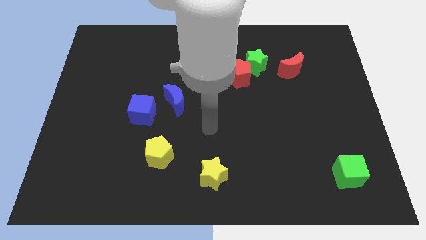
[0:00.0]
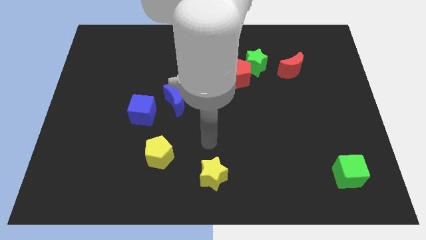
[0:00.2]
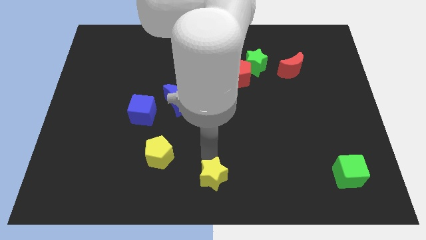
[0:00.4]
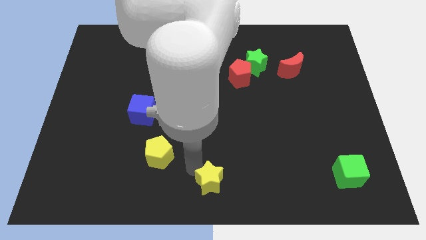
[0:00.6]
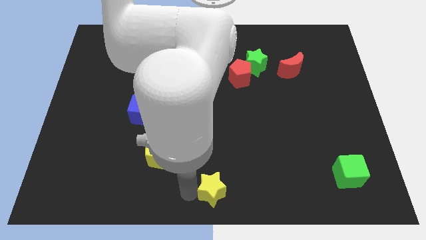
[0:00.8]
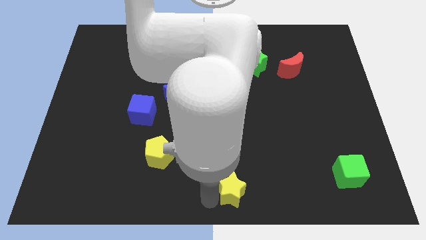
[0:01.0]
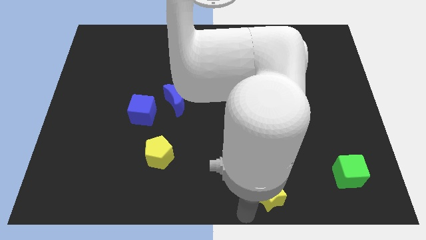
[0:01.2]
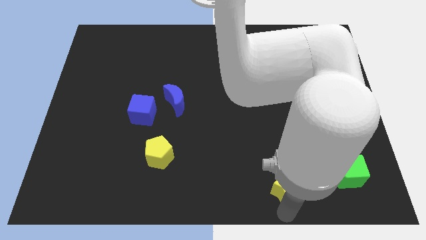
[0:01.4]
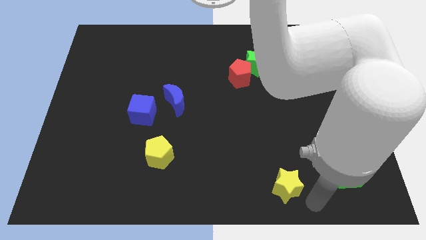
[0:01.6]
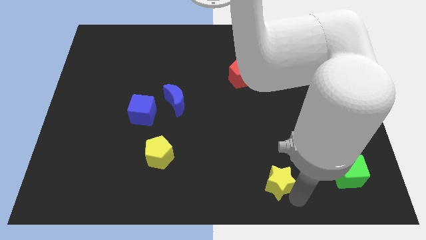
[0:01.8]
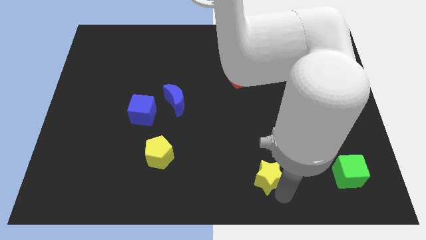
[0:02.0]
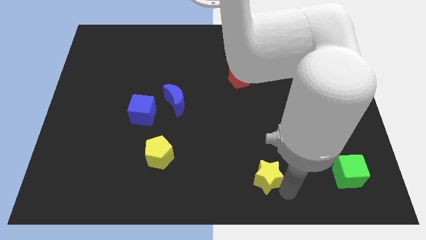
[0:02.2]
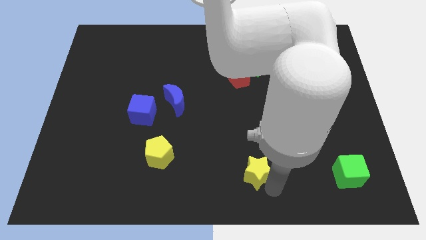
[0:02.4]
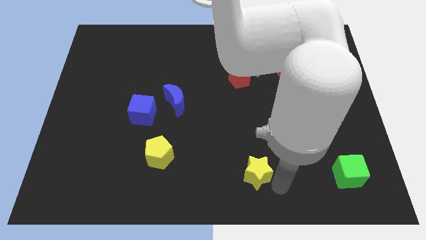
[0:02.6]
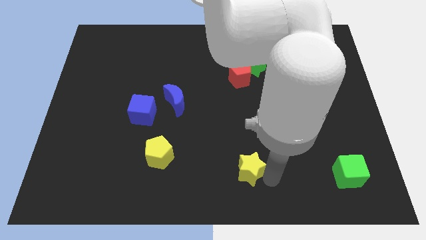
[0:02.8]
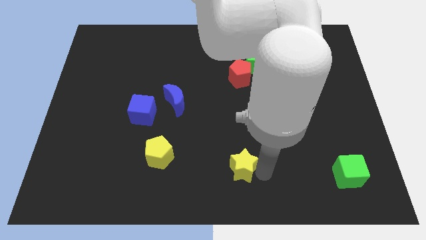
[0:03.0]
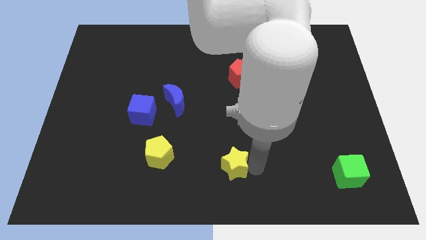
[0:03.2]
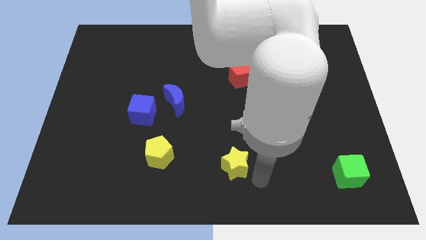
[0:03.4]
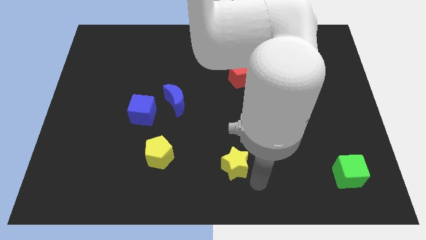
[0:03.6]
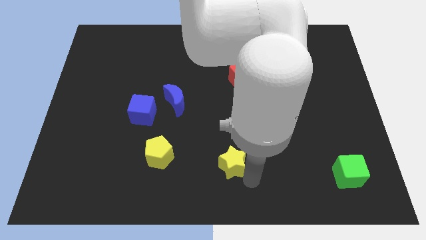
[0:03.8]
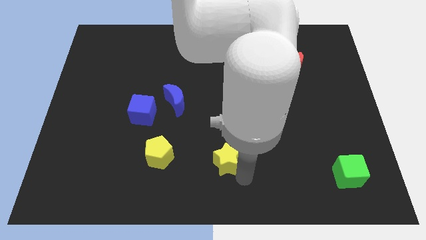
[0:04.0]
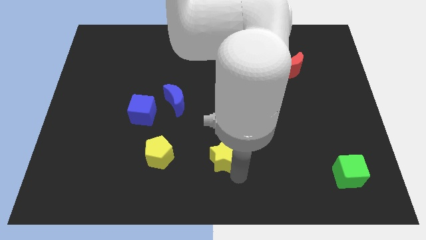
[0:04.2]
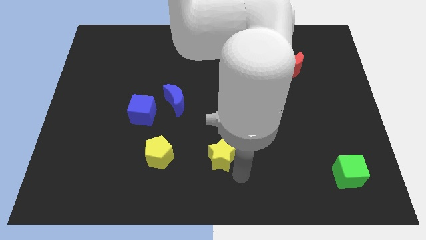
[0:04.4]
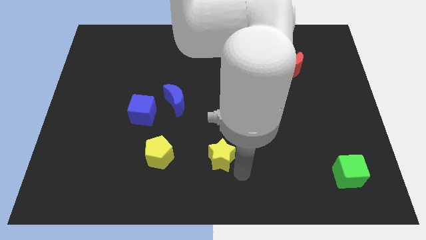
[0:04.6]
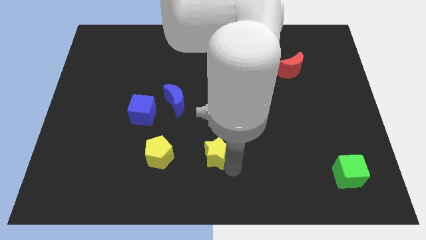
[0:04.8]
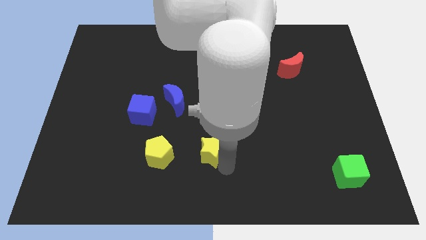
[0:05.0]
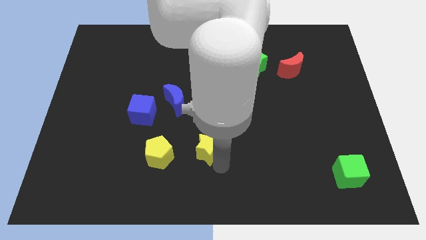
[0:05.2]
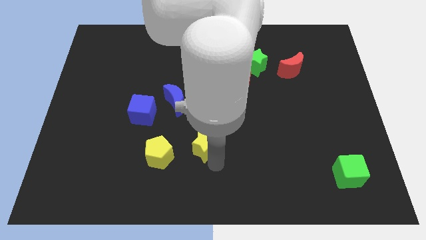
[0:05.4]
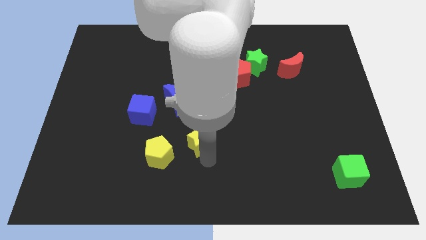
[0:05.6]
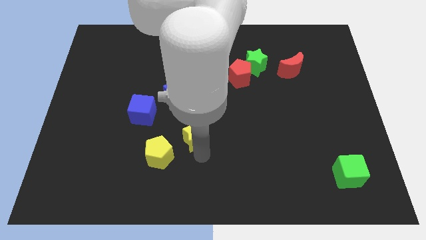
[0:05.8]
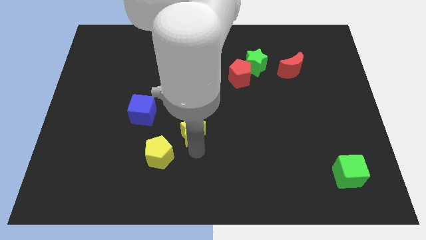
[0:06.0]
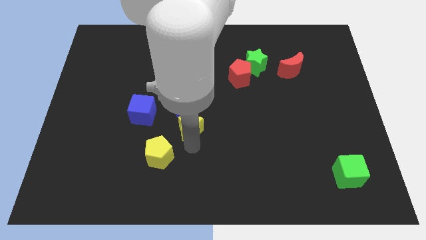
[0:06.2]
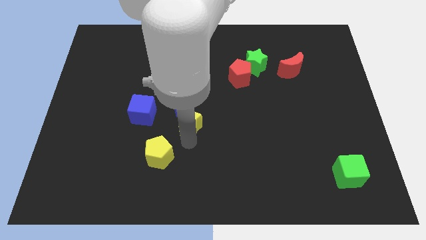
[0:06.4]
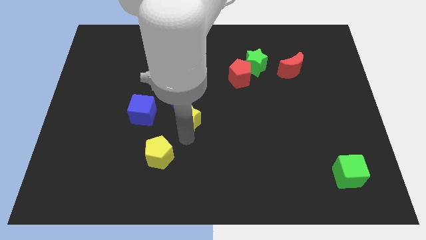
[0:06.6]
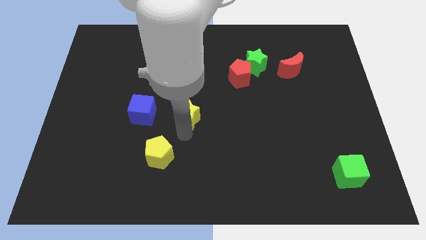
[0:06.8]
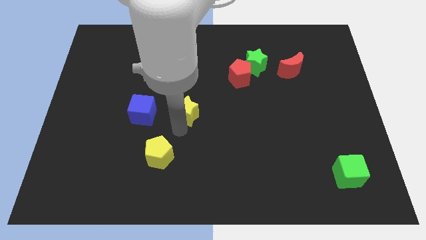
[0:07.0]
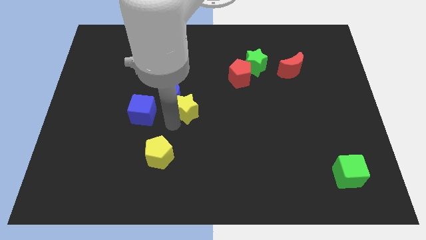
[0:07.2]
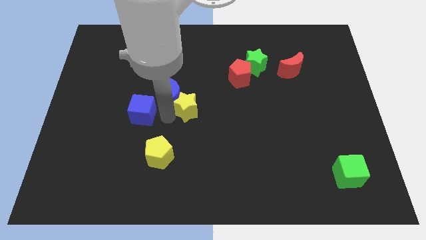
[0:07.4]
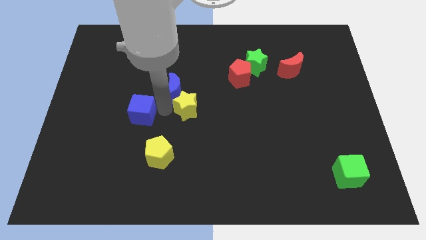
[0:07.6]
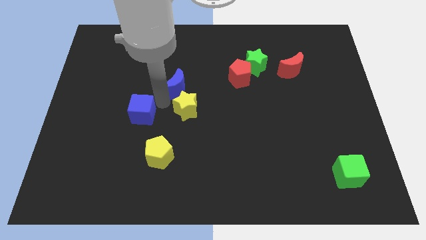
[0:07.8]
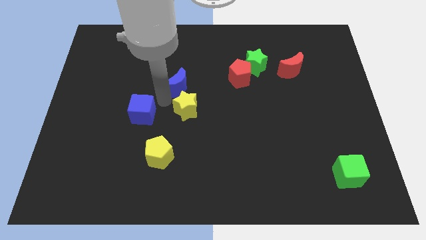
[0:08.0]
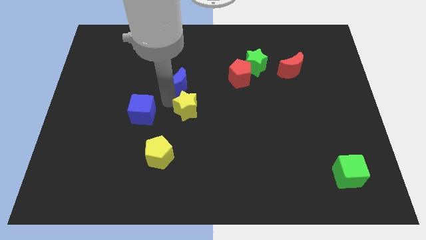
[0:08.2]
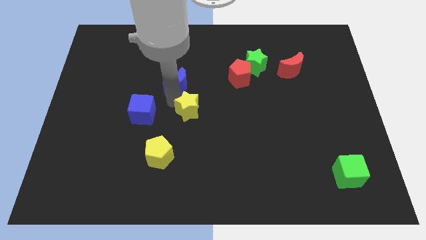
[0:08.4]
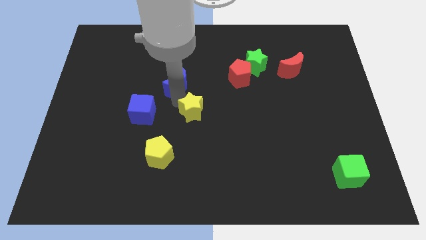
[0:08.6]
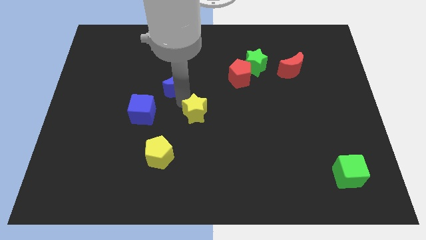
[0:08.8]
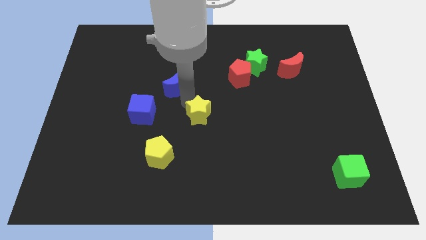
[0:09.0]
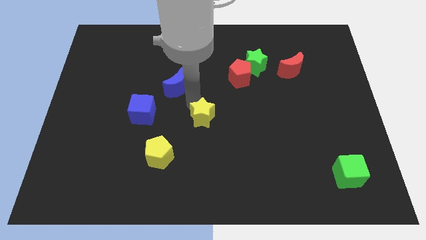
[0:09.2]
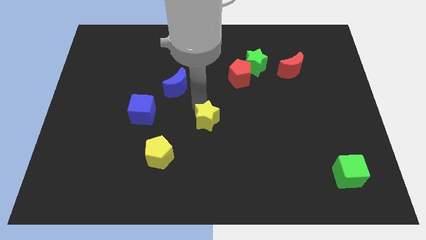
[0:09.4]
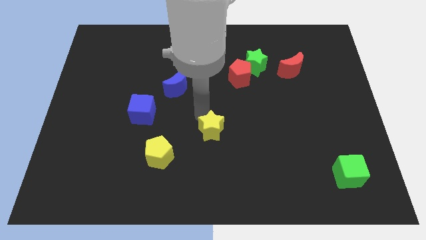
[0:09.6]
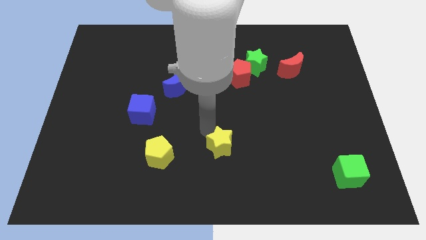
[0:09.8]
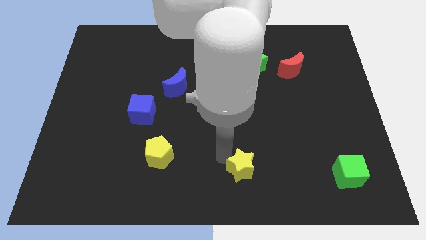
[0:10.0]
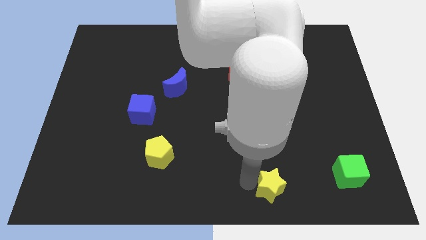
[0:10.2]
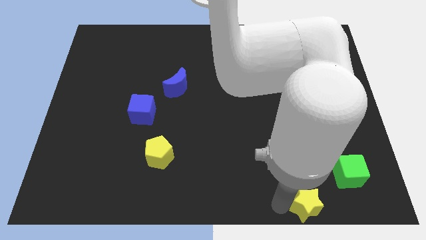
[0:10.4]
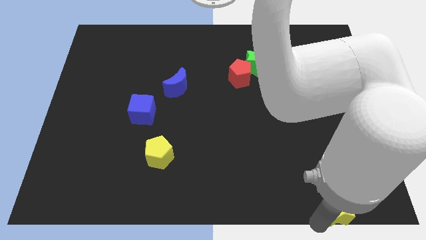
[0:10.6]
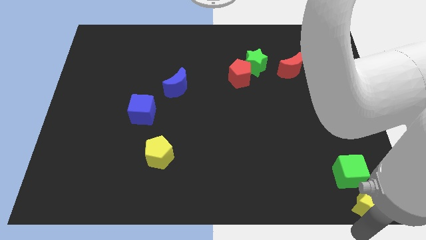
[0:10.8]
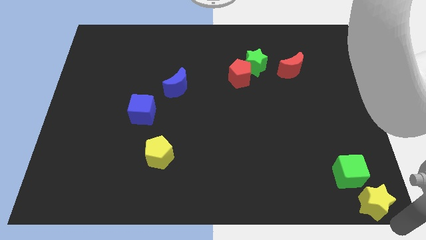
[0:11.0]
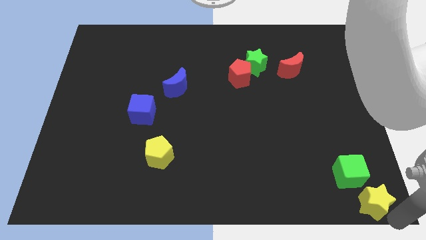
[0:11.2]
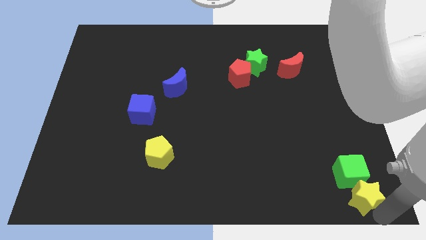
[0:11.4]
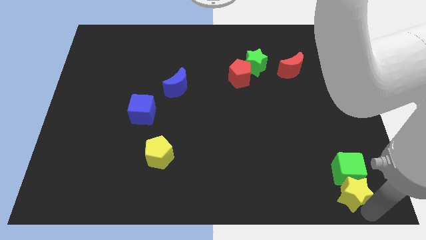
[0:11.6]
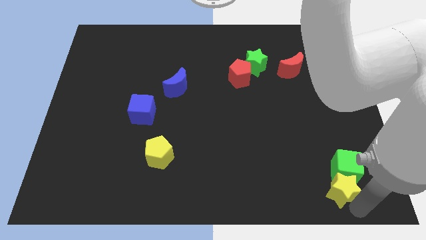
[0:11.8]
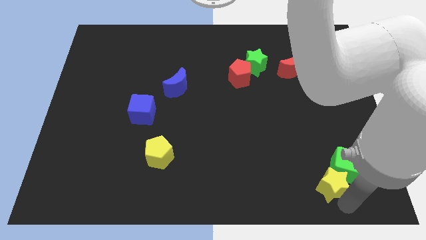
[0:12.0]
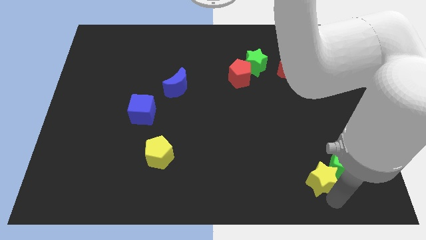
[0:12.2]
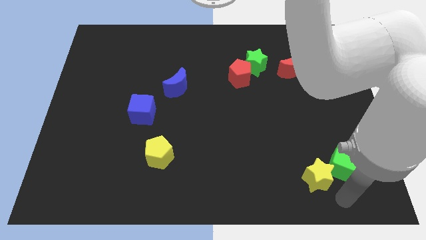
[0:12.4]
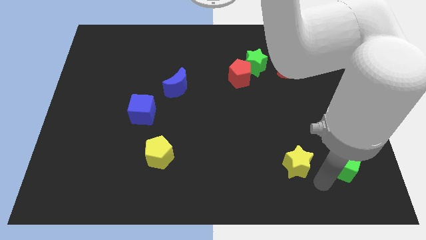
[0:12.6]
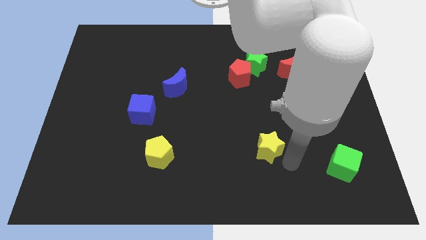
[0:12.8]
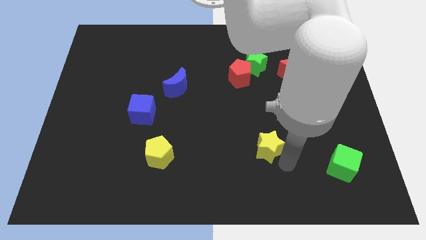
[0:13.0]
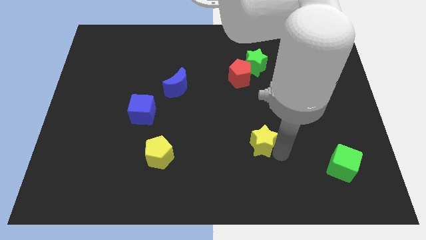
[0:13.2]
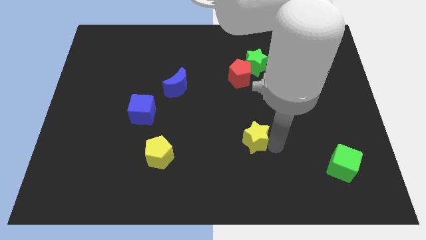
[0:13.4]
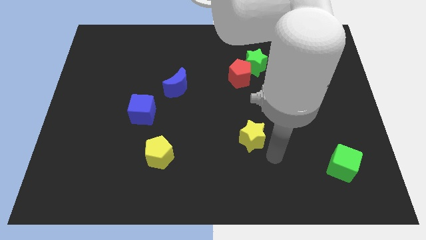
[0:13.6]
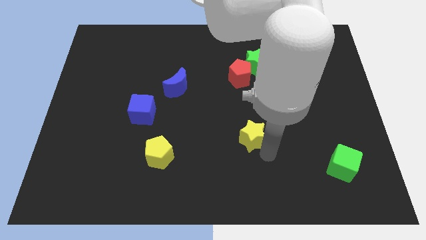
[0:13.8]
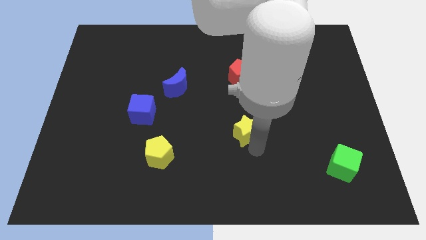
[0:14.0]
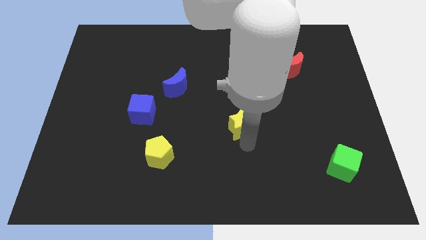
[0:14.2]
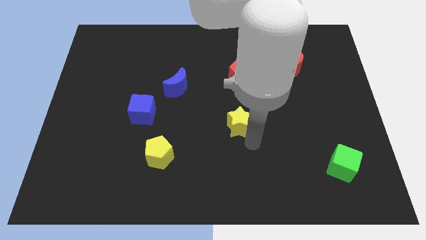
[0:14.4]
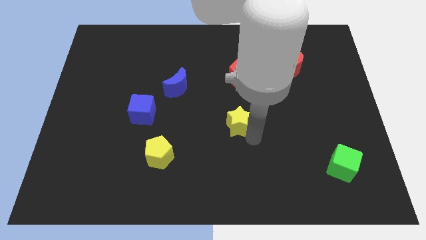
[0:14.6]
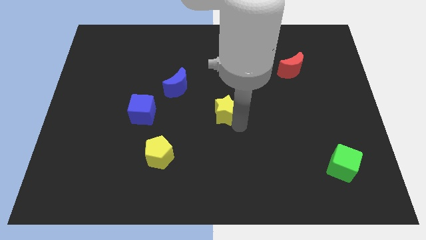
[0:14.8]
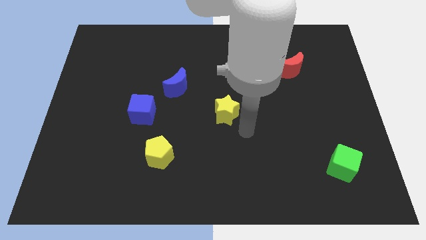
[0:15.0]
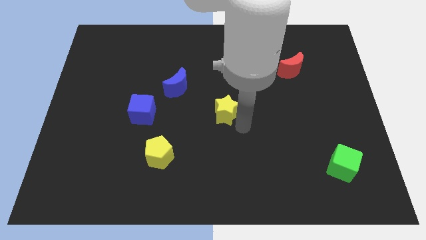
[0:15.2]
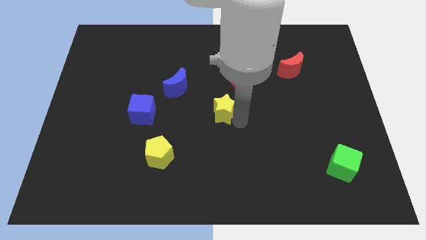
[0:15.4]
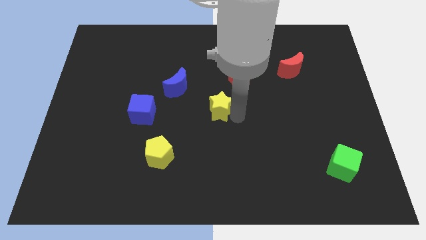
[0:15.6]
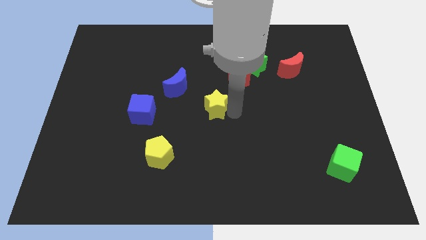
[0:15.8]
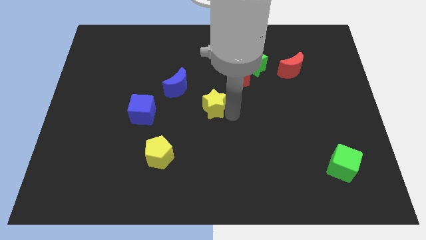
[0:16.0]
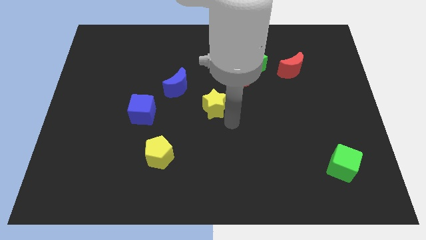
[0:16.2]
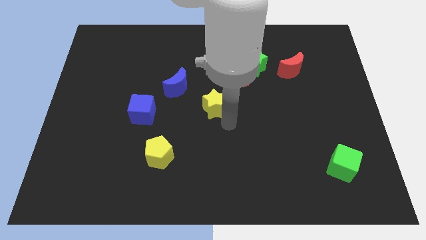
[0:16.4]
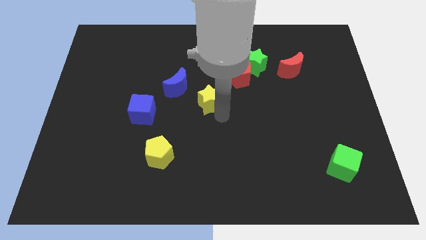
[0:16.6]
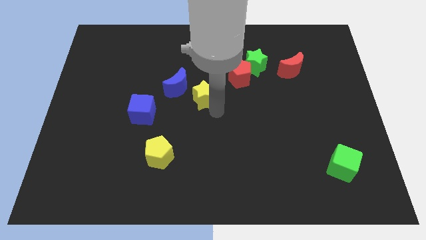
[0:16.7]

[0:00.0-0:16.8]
slide the yellow star upwards
